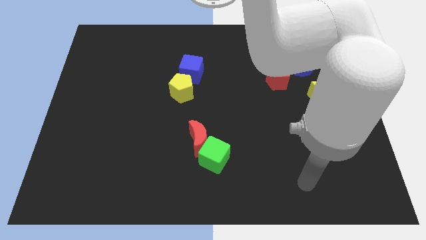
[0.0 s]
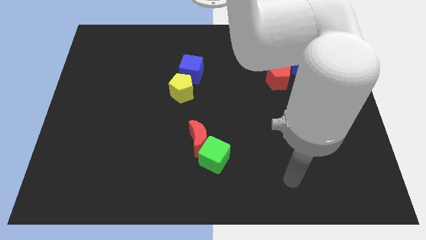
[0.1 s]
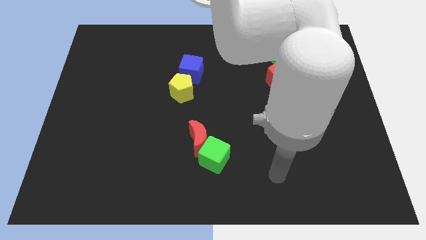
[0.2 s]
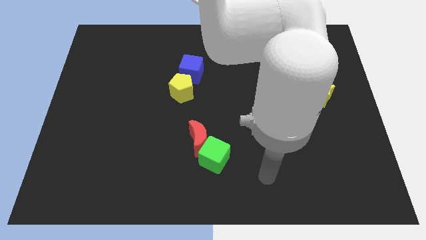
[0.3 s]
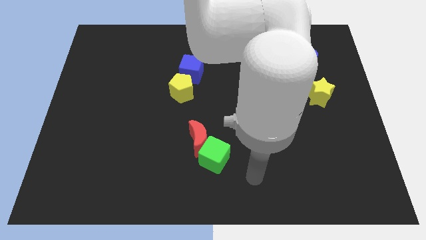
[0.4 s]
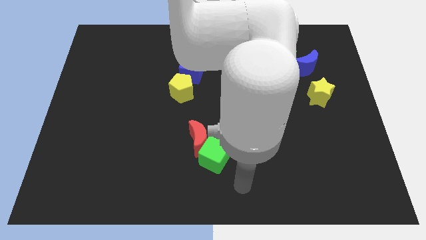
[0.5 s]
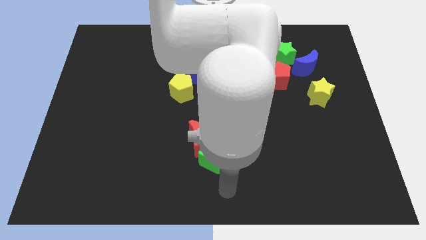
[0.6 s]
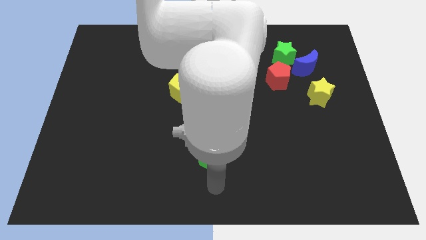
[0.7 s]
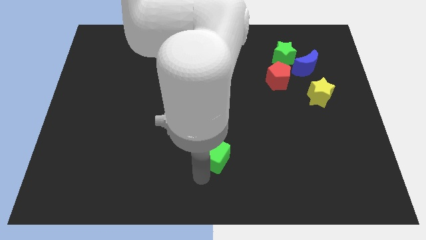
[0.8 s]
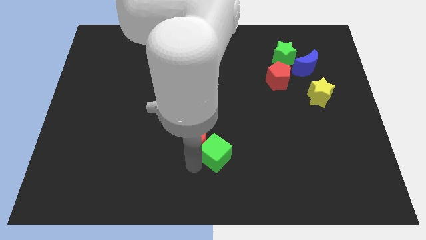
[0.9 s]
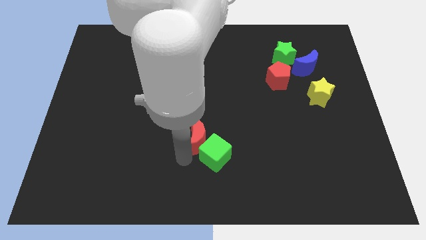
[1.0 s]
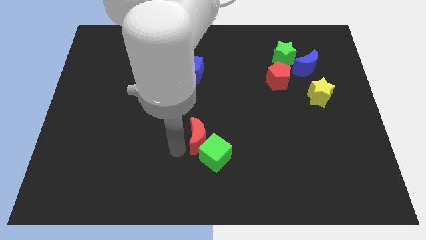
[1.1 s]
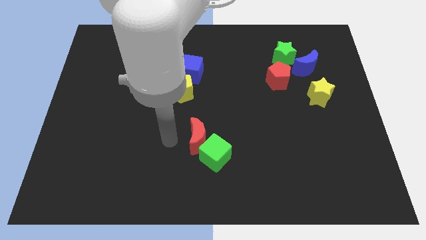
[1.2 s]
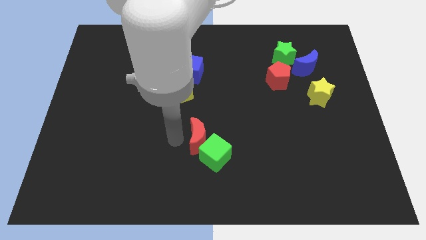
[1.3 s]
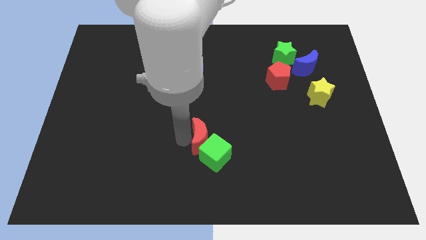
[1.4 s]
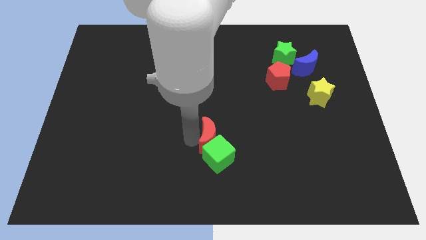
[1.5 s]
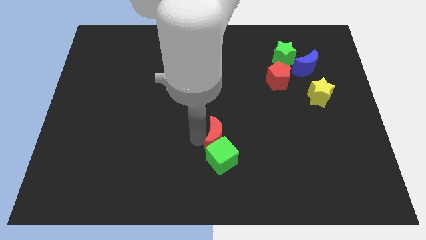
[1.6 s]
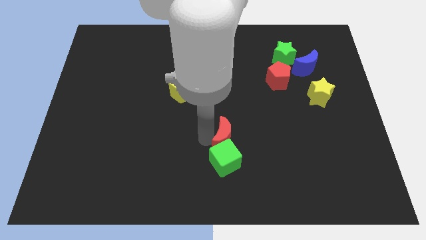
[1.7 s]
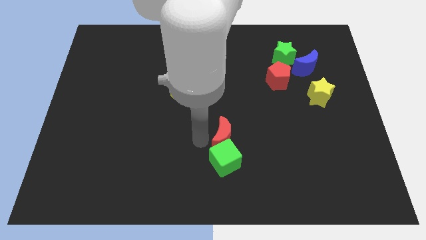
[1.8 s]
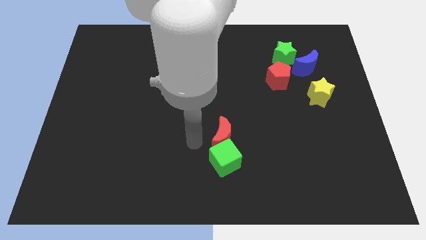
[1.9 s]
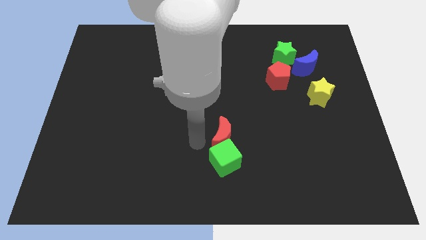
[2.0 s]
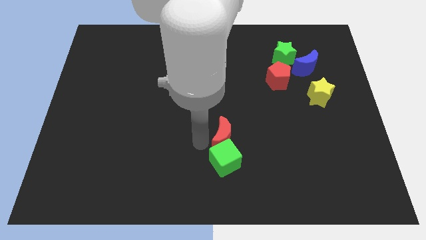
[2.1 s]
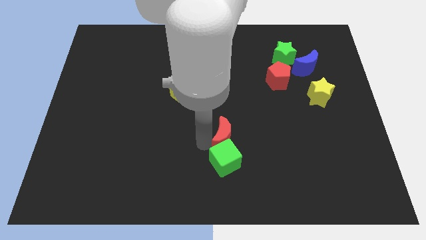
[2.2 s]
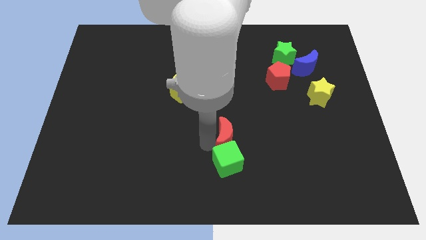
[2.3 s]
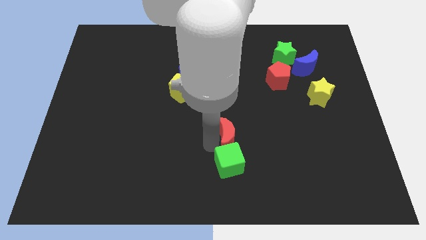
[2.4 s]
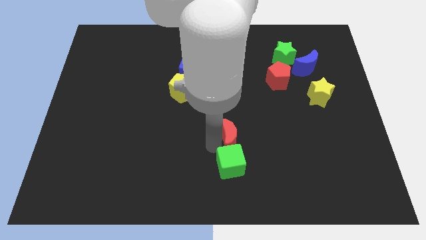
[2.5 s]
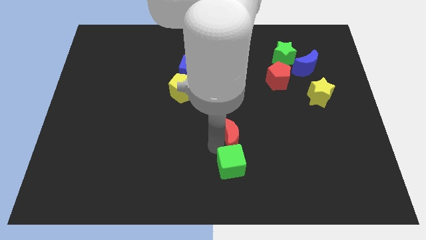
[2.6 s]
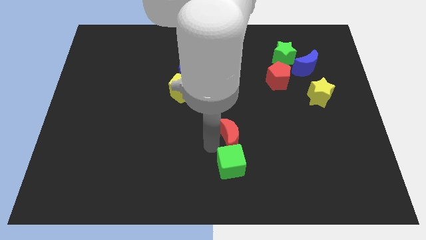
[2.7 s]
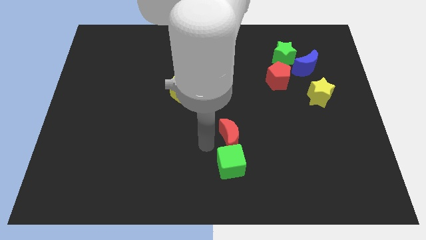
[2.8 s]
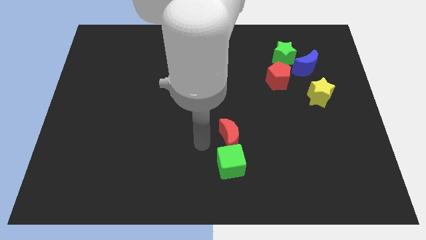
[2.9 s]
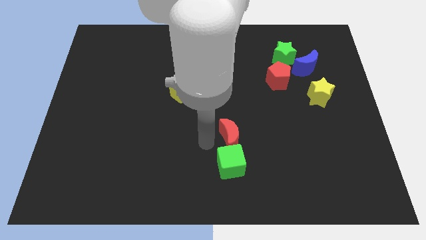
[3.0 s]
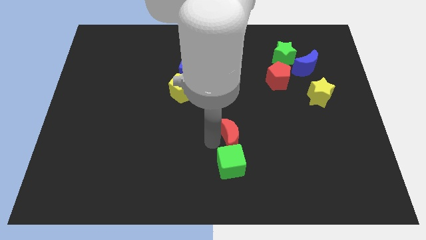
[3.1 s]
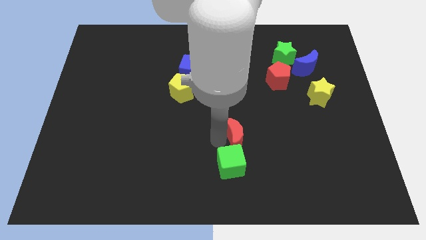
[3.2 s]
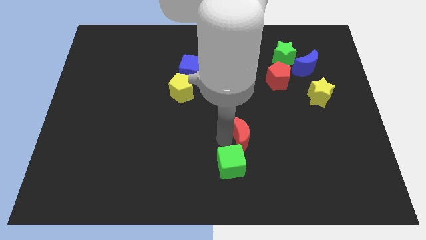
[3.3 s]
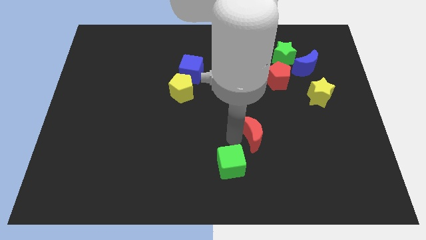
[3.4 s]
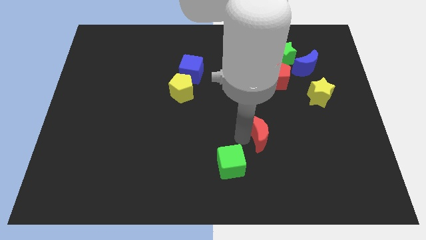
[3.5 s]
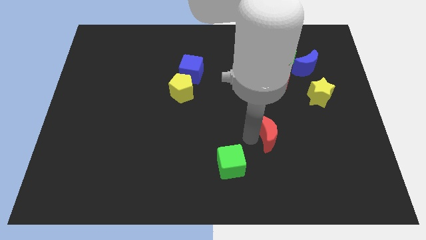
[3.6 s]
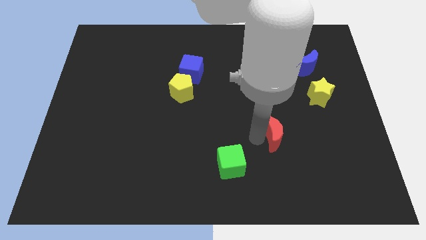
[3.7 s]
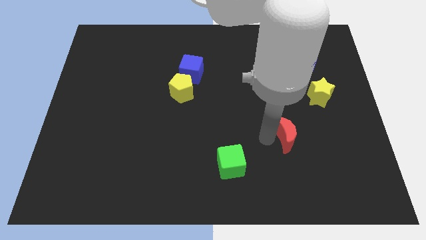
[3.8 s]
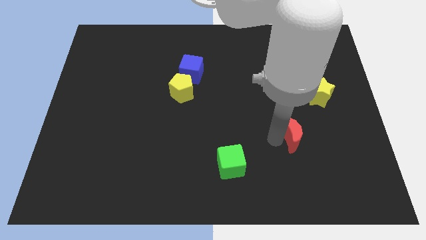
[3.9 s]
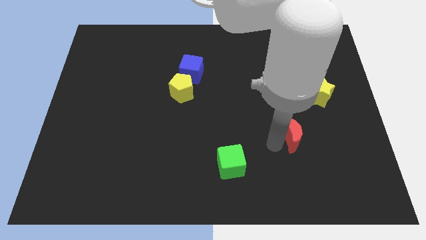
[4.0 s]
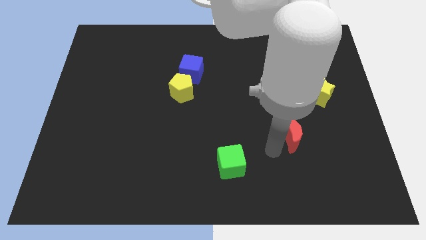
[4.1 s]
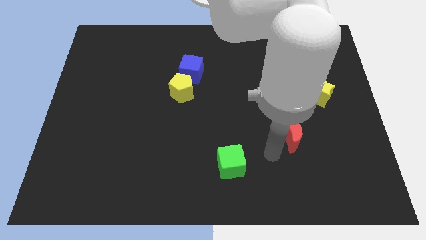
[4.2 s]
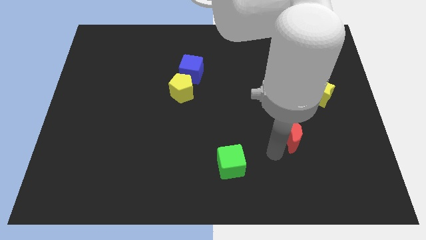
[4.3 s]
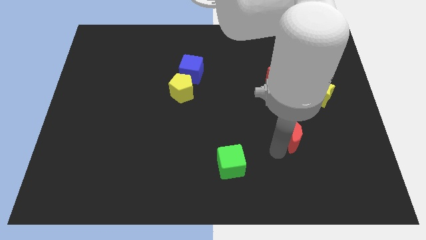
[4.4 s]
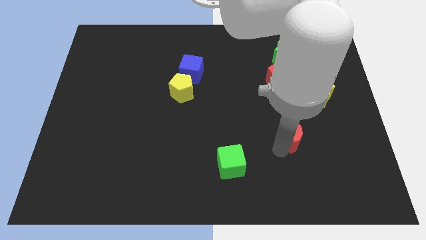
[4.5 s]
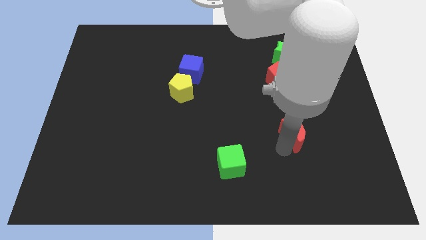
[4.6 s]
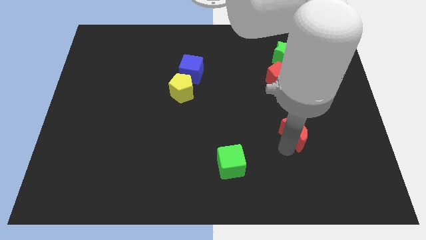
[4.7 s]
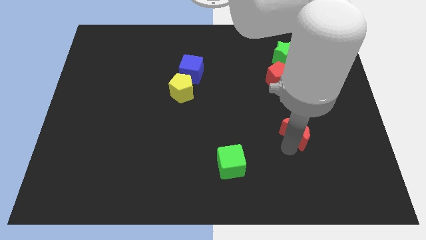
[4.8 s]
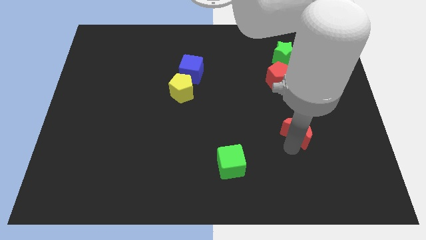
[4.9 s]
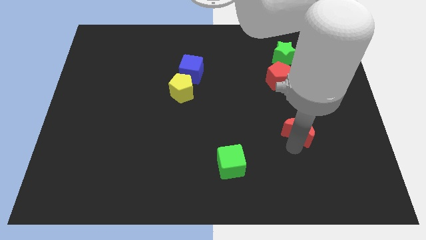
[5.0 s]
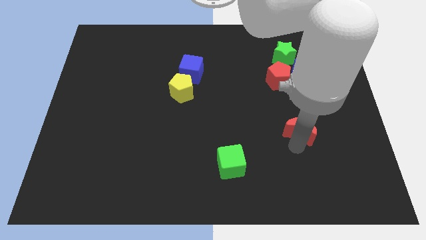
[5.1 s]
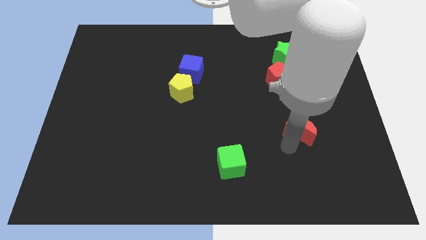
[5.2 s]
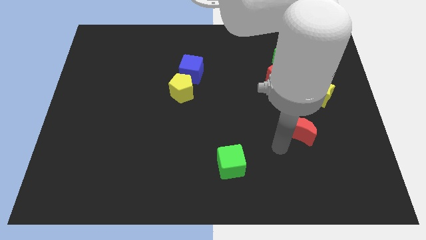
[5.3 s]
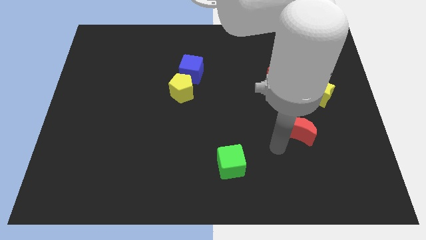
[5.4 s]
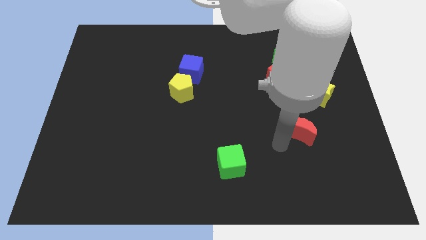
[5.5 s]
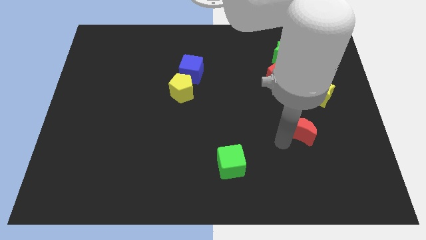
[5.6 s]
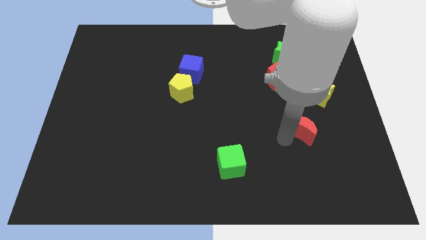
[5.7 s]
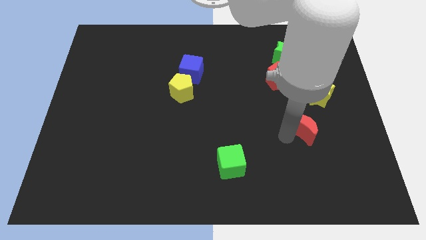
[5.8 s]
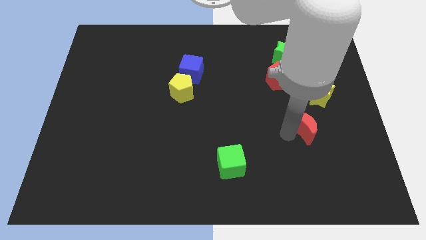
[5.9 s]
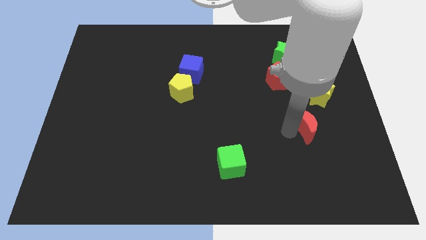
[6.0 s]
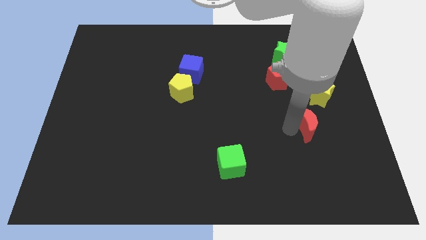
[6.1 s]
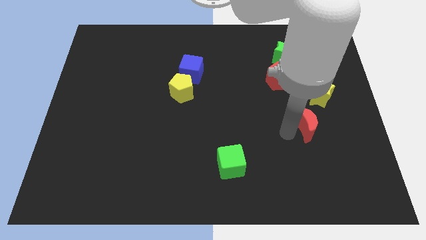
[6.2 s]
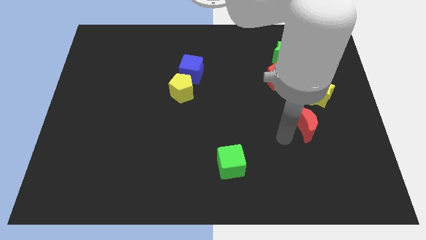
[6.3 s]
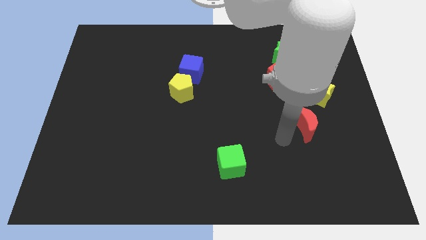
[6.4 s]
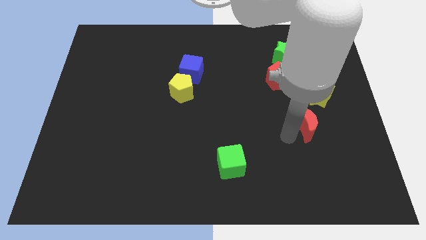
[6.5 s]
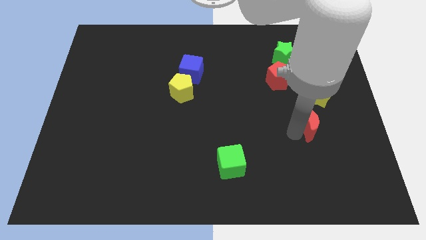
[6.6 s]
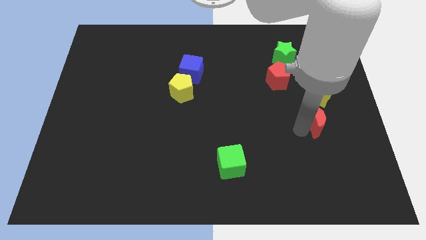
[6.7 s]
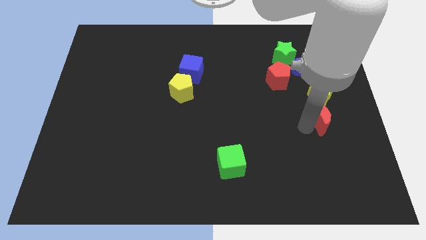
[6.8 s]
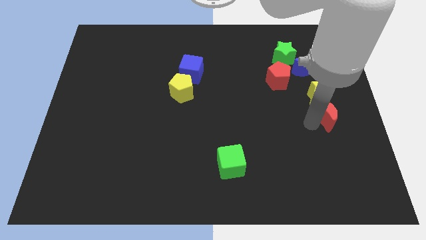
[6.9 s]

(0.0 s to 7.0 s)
put the red moon to the right side
